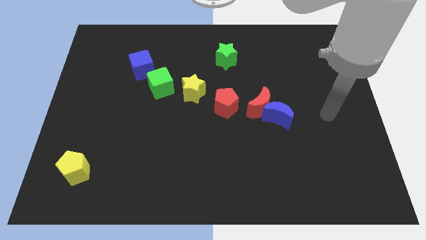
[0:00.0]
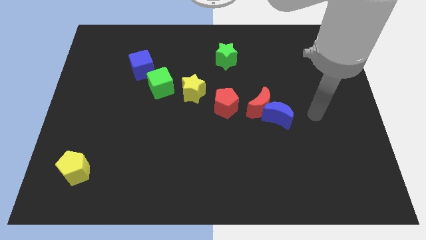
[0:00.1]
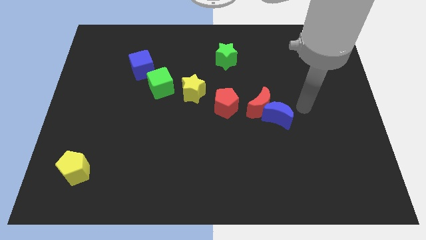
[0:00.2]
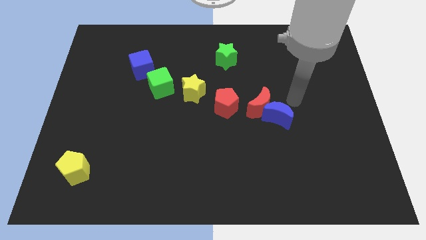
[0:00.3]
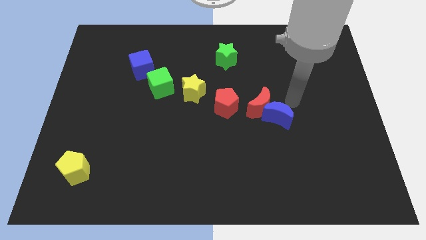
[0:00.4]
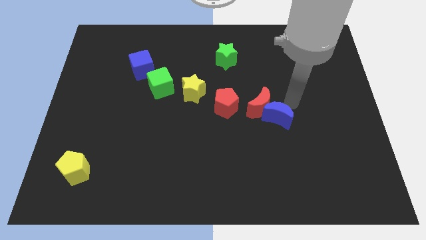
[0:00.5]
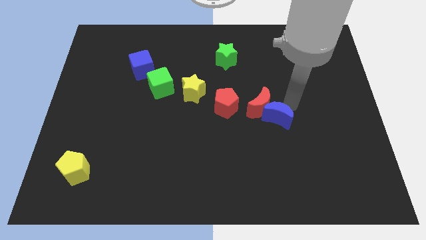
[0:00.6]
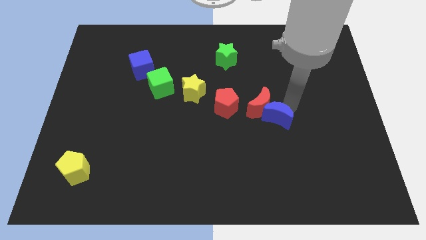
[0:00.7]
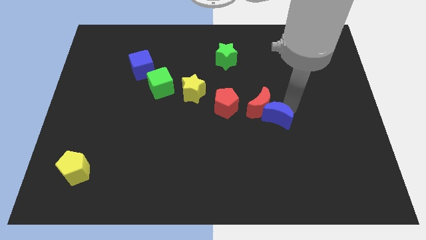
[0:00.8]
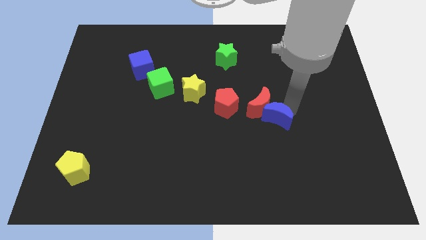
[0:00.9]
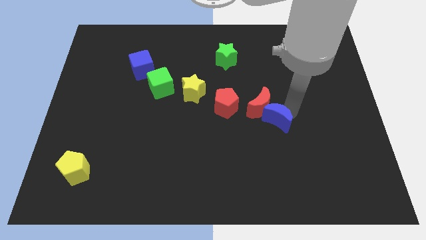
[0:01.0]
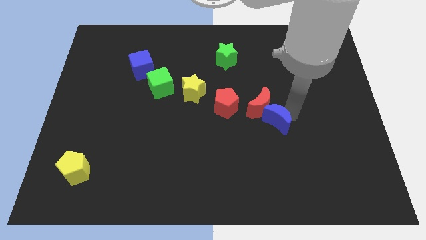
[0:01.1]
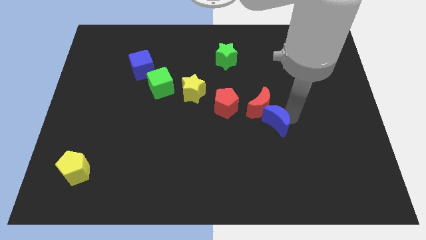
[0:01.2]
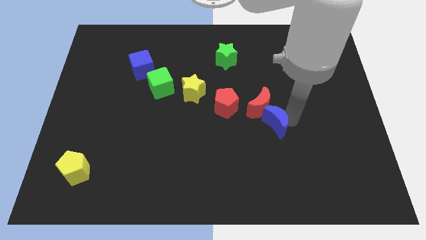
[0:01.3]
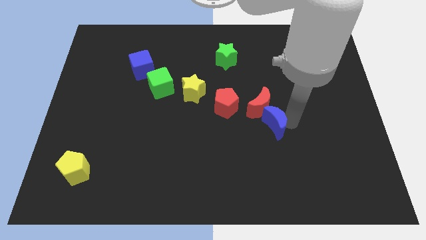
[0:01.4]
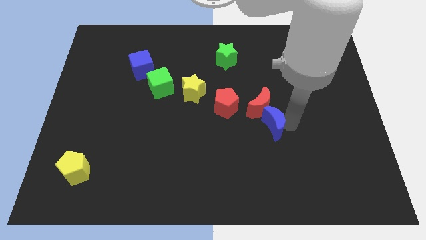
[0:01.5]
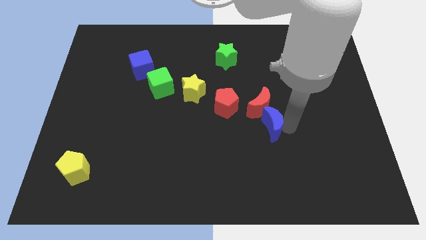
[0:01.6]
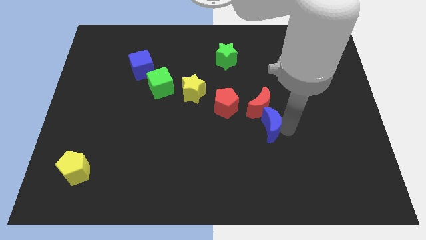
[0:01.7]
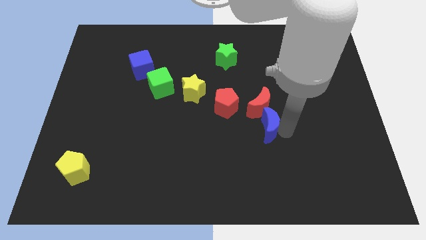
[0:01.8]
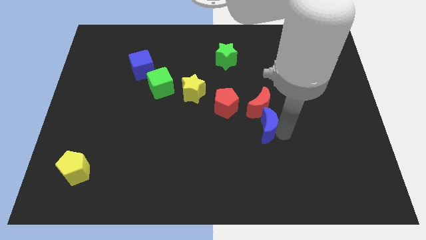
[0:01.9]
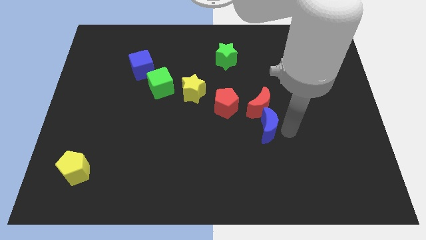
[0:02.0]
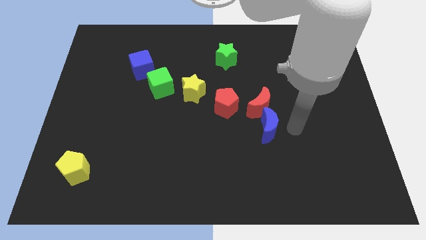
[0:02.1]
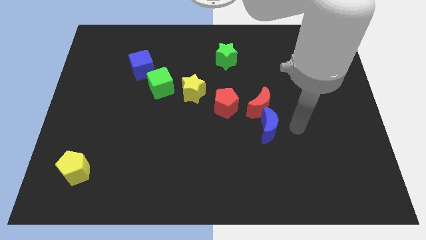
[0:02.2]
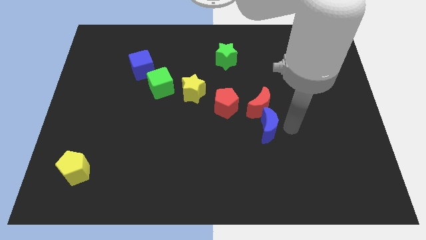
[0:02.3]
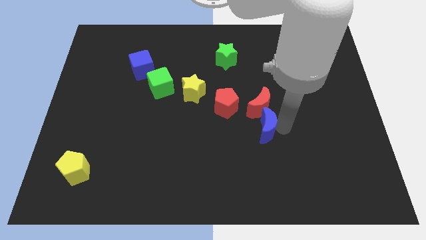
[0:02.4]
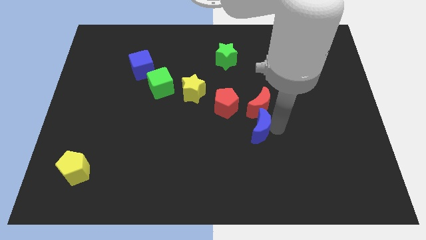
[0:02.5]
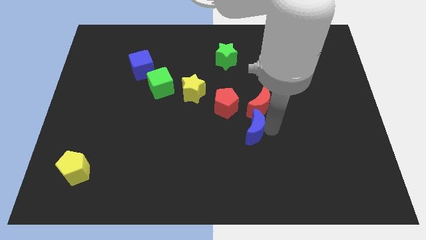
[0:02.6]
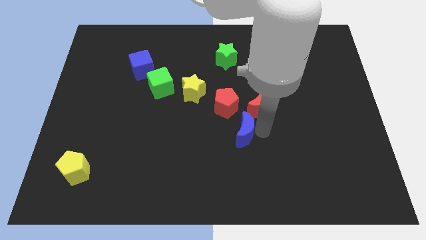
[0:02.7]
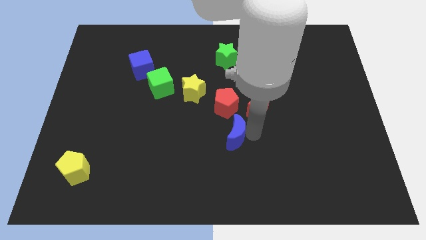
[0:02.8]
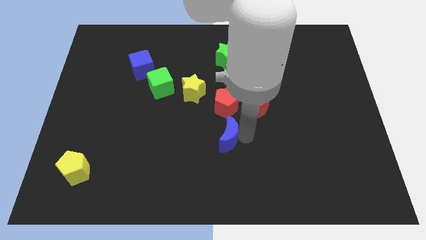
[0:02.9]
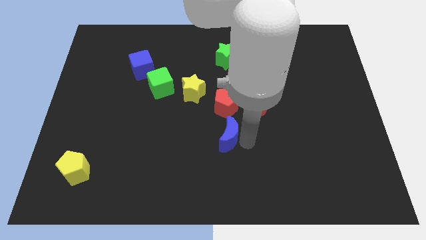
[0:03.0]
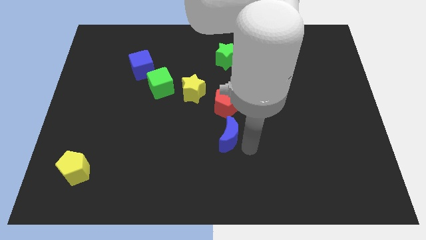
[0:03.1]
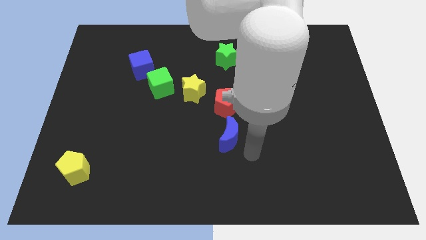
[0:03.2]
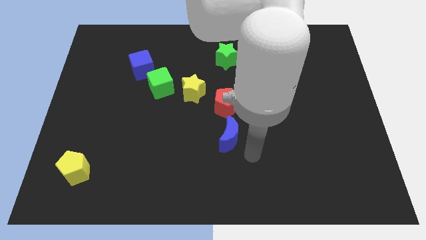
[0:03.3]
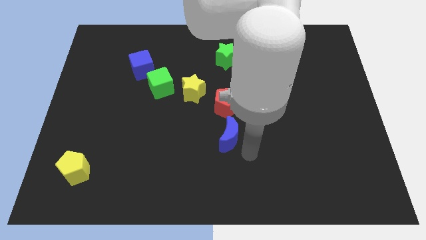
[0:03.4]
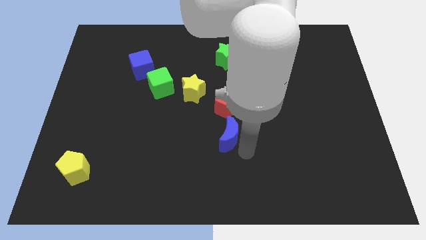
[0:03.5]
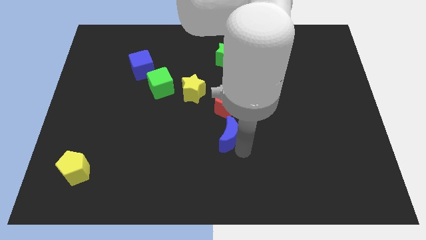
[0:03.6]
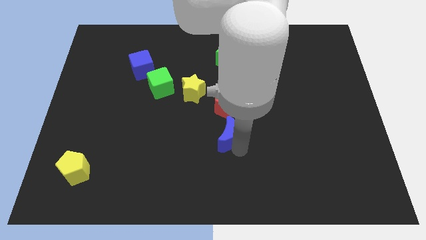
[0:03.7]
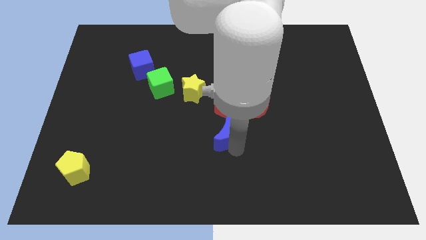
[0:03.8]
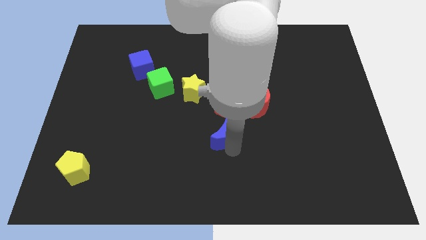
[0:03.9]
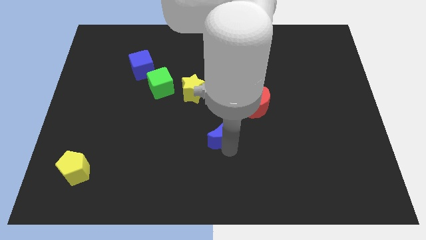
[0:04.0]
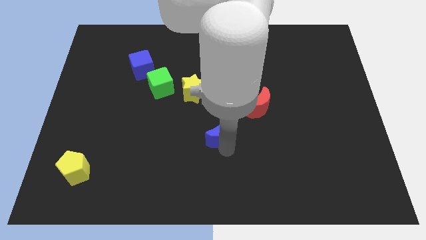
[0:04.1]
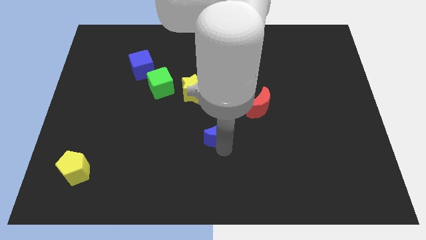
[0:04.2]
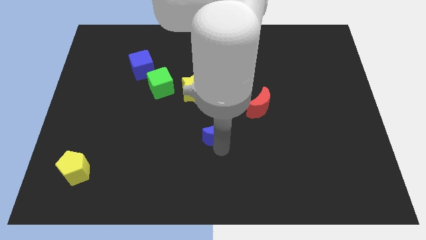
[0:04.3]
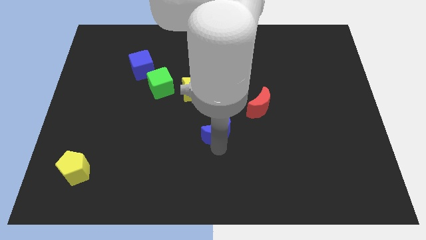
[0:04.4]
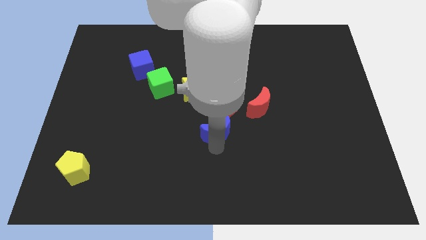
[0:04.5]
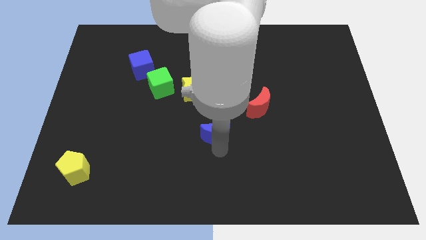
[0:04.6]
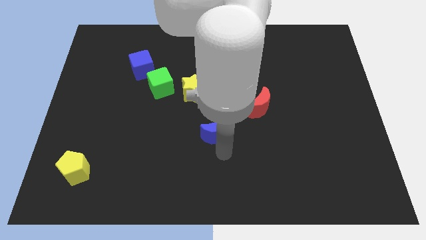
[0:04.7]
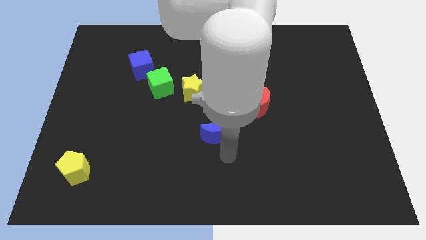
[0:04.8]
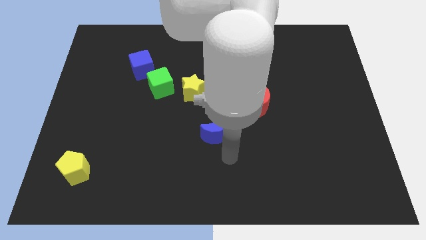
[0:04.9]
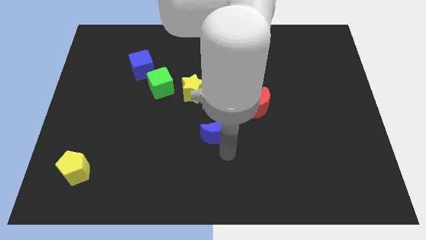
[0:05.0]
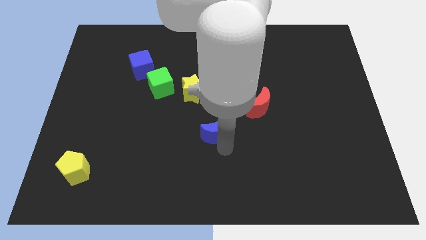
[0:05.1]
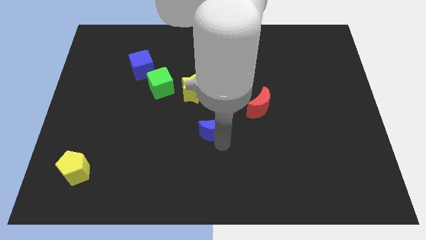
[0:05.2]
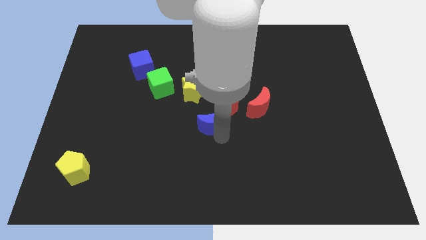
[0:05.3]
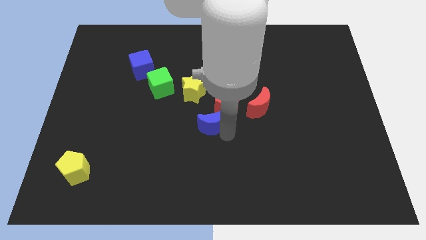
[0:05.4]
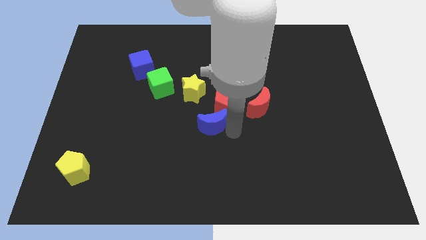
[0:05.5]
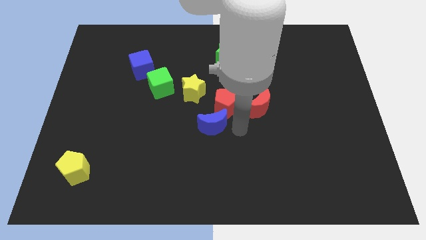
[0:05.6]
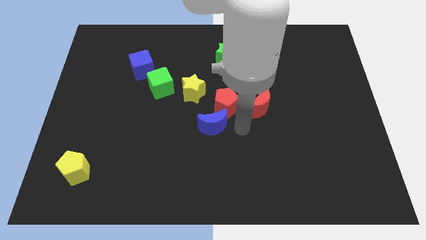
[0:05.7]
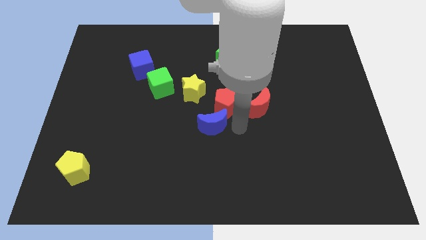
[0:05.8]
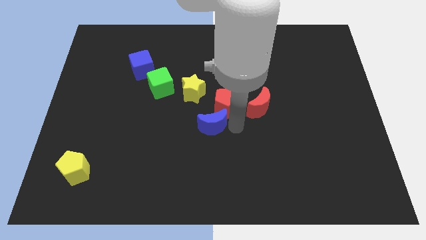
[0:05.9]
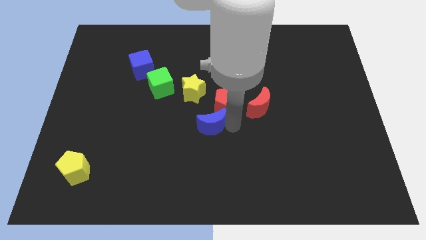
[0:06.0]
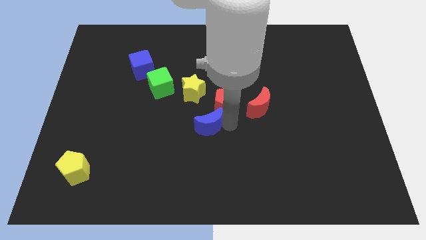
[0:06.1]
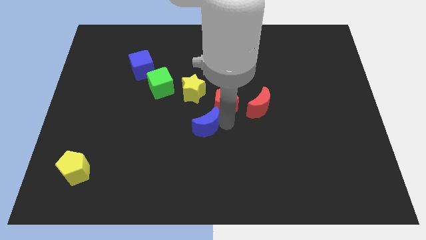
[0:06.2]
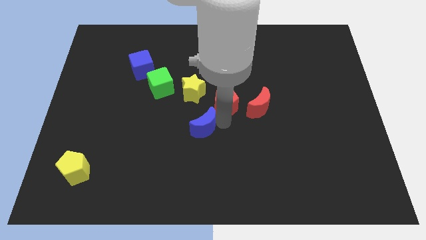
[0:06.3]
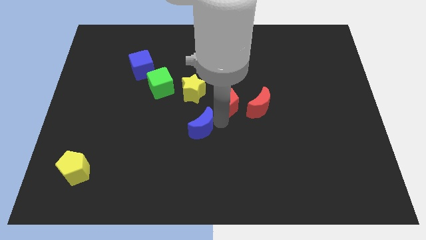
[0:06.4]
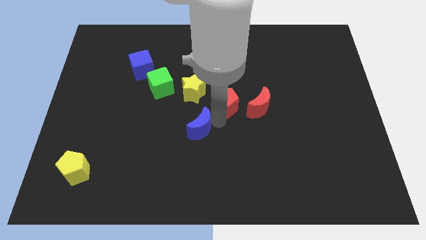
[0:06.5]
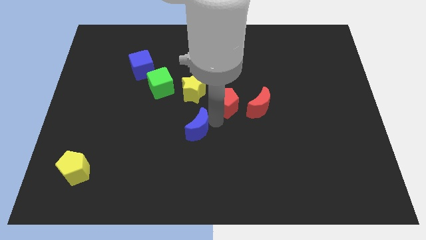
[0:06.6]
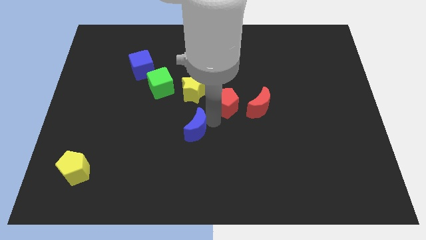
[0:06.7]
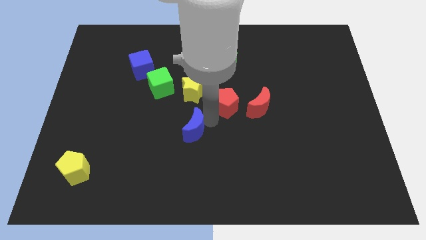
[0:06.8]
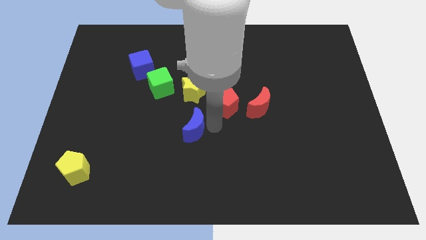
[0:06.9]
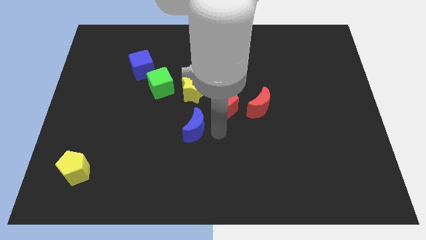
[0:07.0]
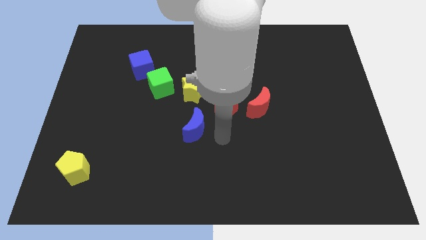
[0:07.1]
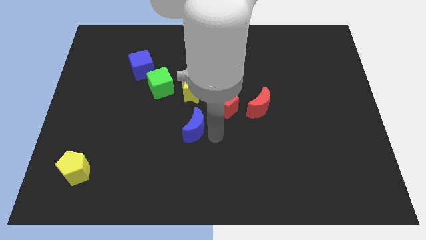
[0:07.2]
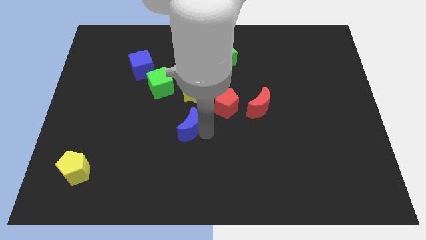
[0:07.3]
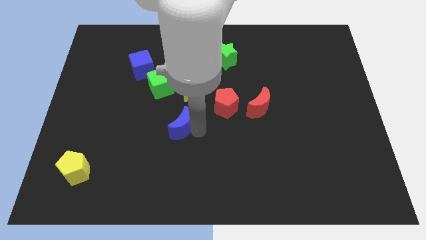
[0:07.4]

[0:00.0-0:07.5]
move the blue moon to the left

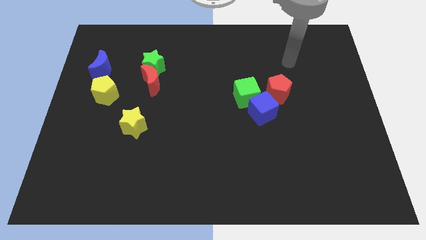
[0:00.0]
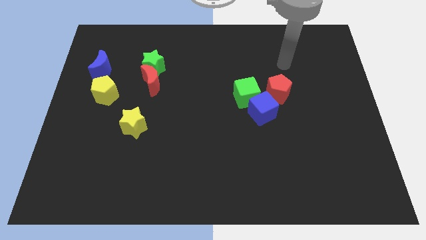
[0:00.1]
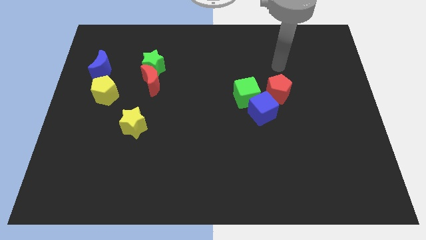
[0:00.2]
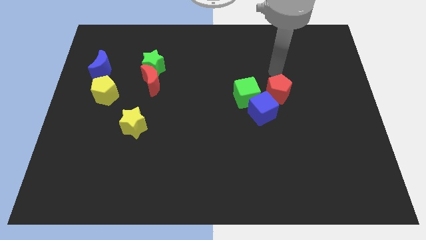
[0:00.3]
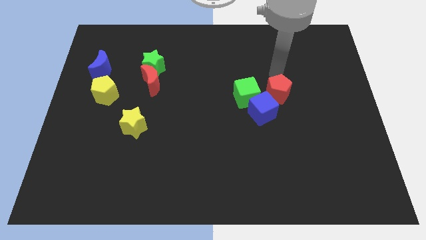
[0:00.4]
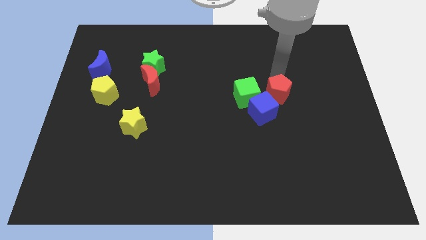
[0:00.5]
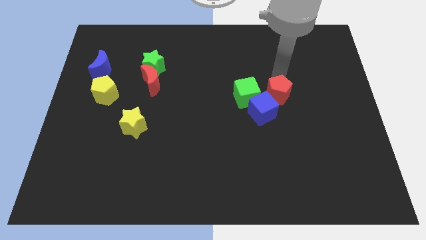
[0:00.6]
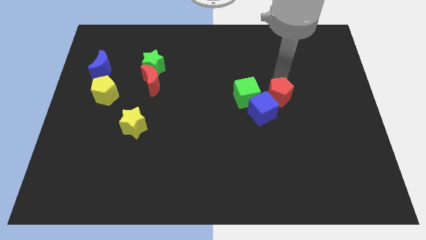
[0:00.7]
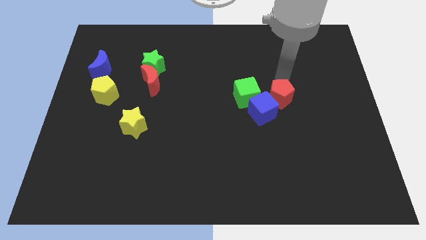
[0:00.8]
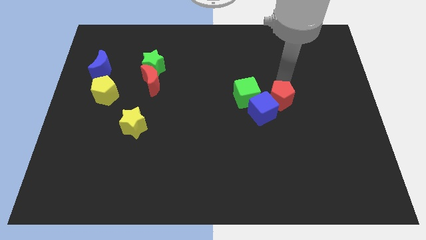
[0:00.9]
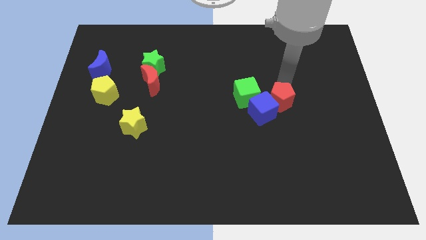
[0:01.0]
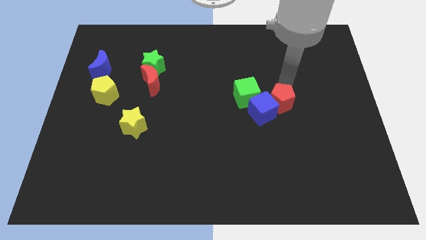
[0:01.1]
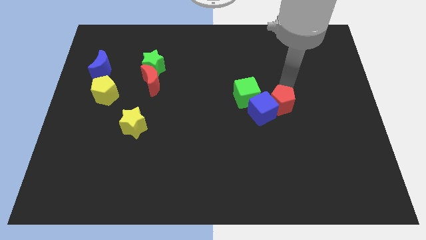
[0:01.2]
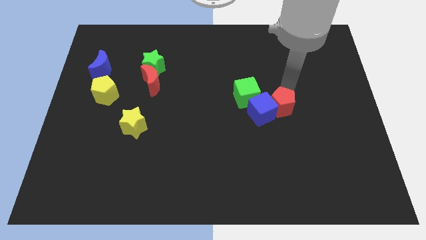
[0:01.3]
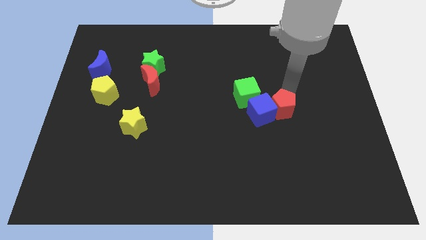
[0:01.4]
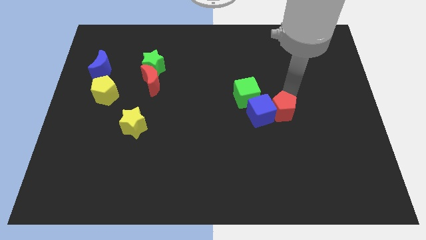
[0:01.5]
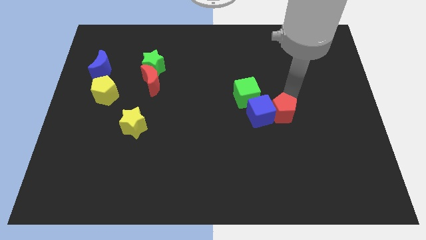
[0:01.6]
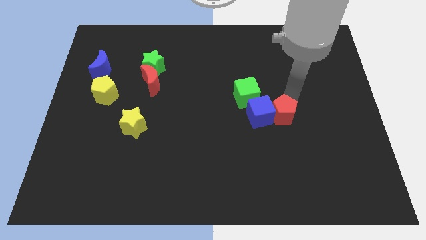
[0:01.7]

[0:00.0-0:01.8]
slightly move the red pentagon downwards
